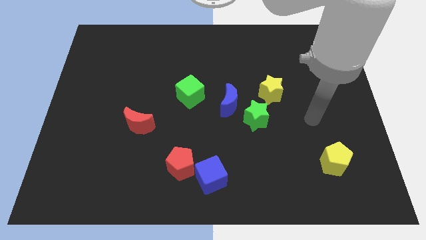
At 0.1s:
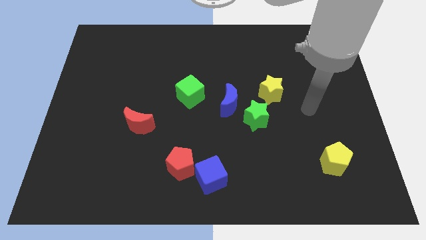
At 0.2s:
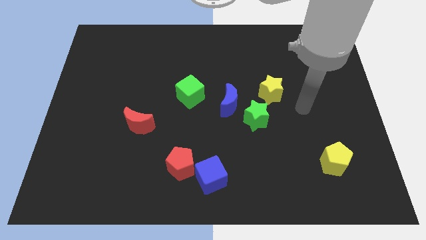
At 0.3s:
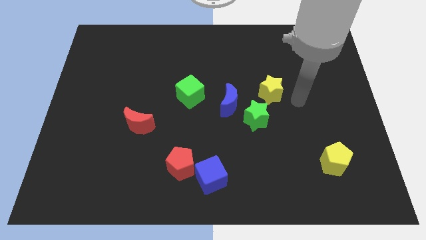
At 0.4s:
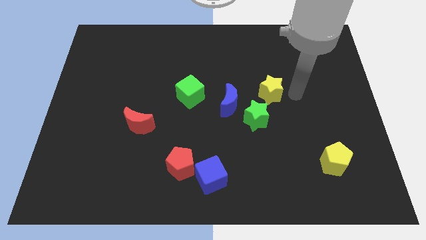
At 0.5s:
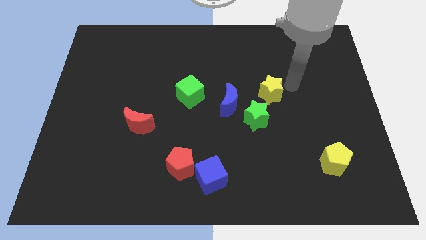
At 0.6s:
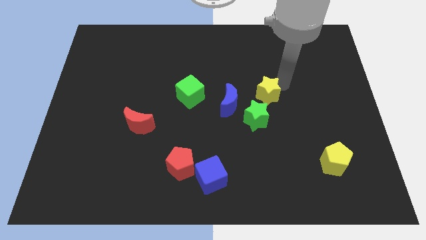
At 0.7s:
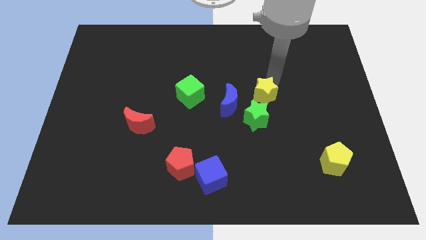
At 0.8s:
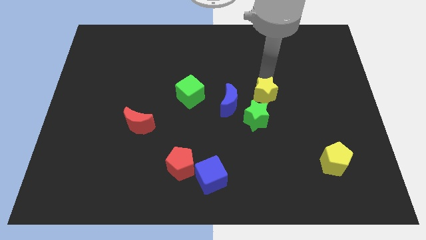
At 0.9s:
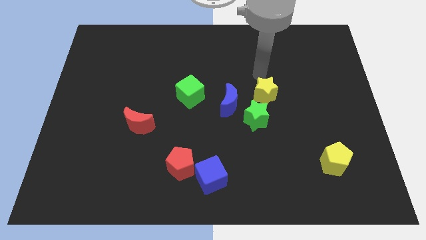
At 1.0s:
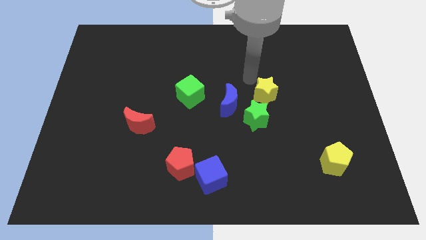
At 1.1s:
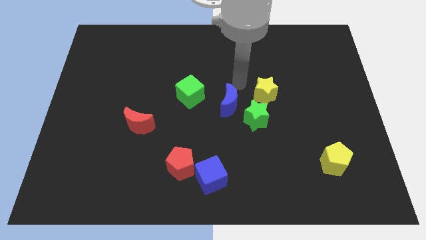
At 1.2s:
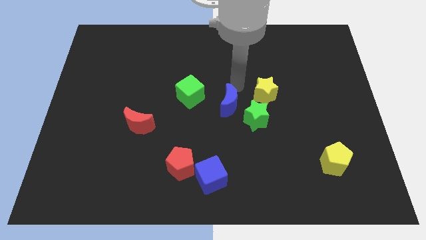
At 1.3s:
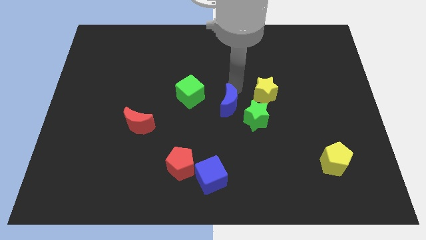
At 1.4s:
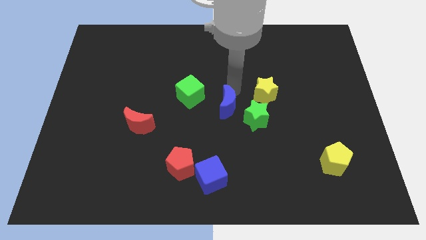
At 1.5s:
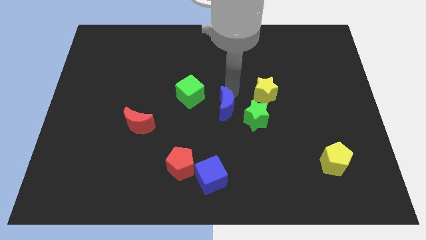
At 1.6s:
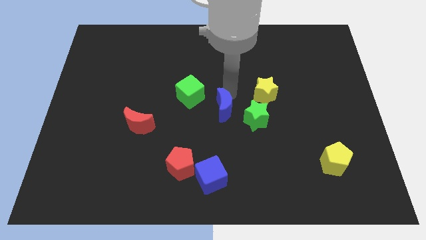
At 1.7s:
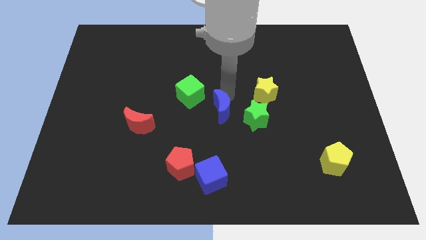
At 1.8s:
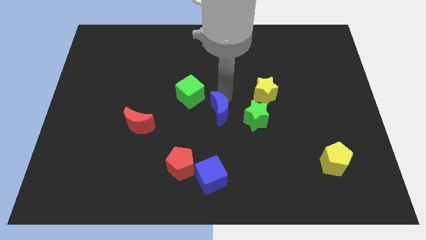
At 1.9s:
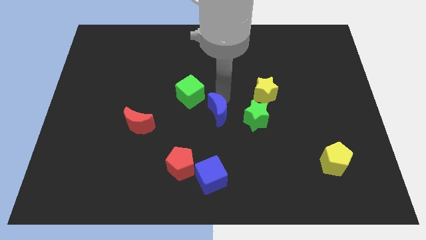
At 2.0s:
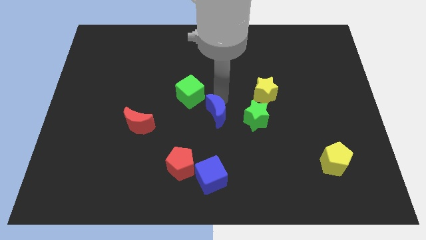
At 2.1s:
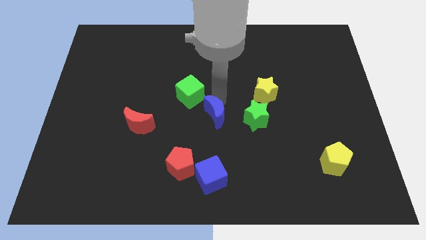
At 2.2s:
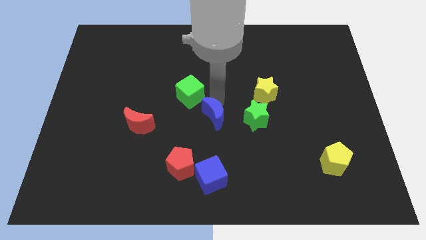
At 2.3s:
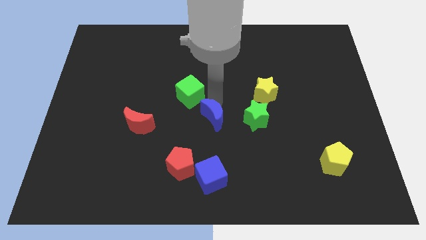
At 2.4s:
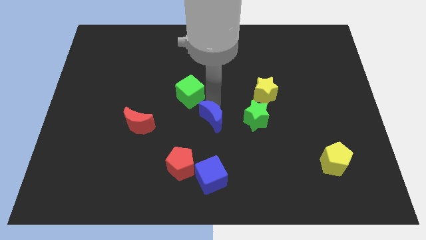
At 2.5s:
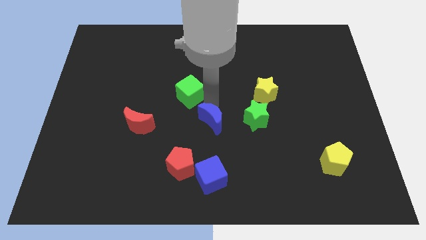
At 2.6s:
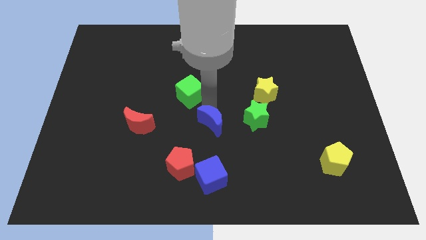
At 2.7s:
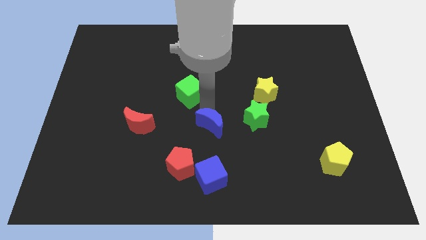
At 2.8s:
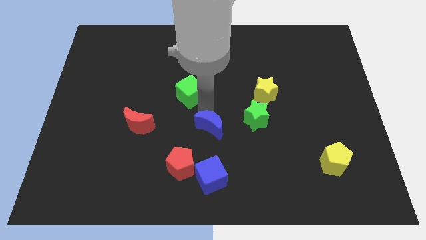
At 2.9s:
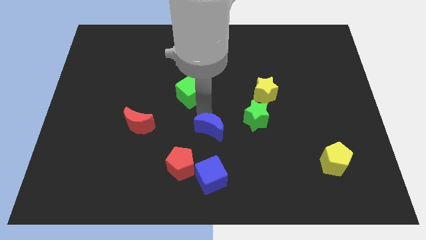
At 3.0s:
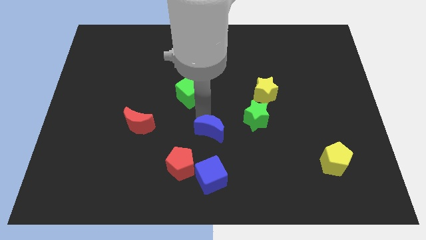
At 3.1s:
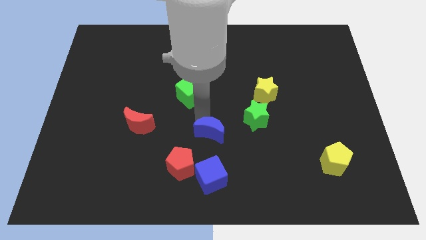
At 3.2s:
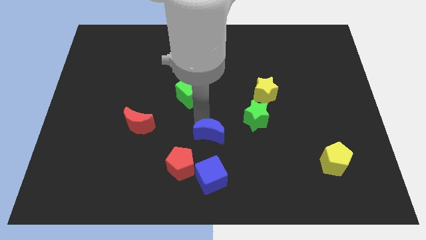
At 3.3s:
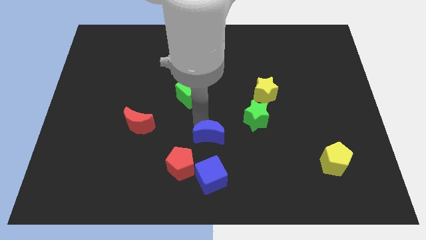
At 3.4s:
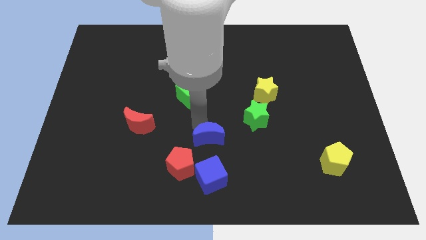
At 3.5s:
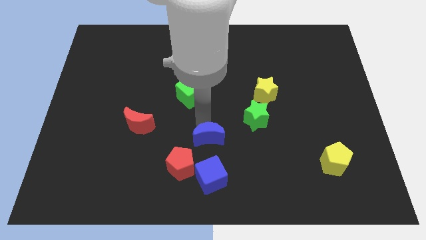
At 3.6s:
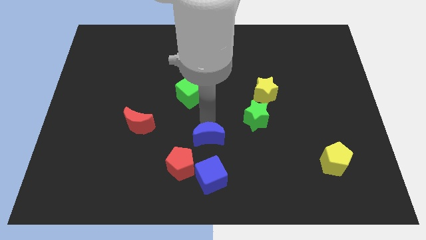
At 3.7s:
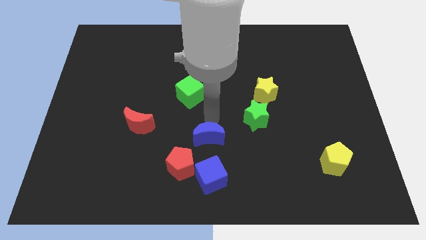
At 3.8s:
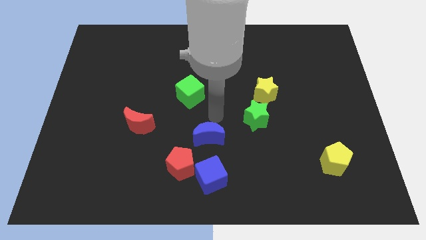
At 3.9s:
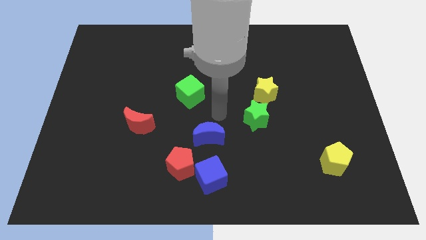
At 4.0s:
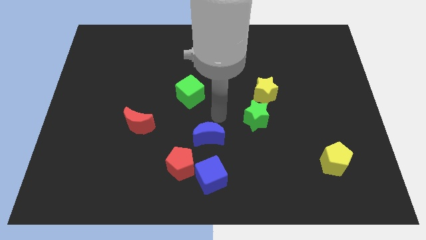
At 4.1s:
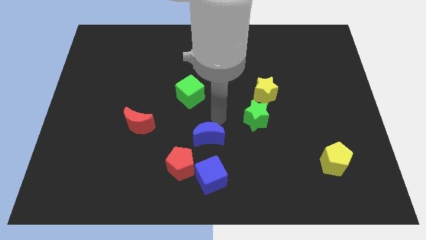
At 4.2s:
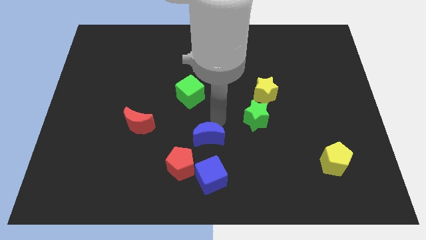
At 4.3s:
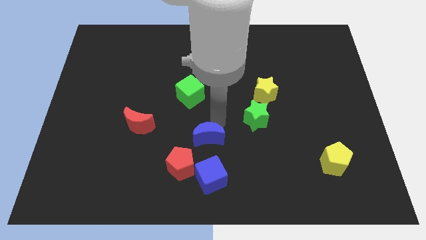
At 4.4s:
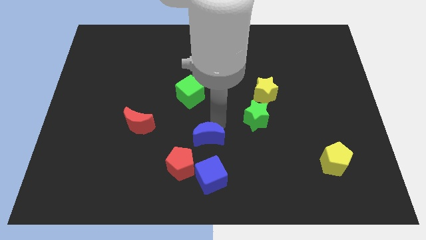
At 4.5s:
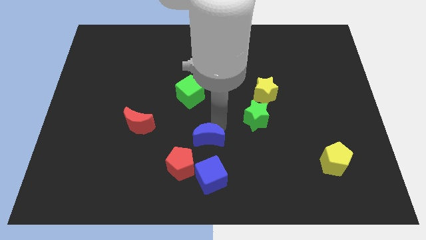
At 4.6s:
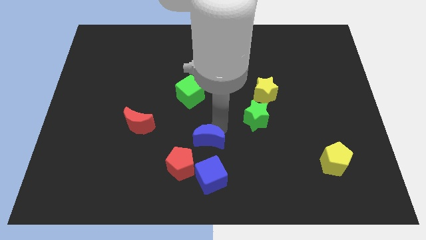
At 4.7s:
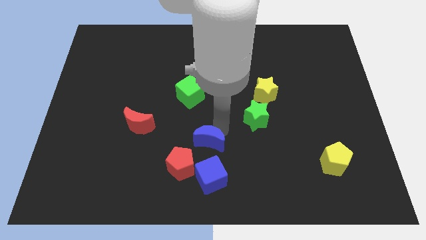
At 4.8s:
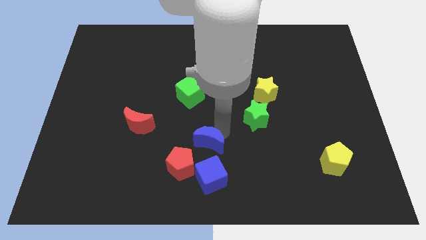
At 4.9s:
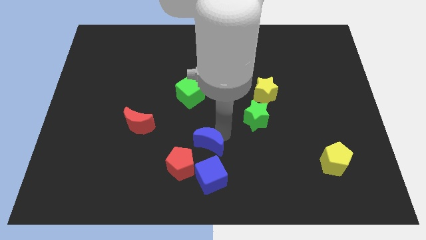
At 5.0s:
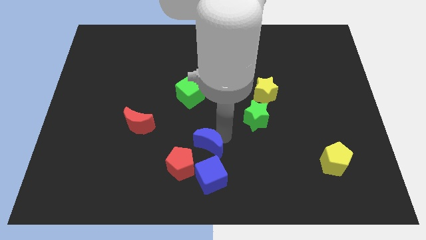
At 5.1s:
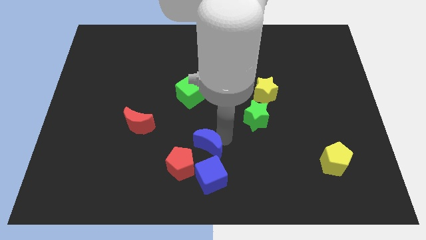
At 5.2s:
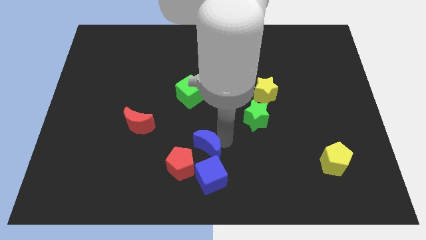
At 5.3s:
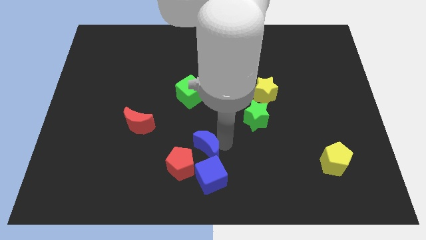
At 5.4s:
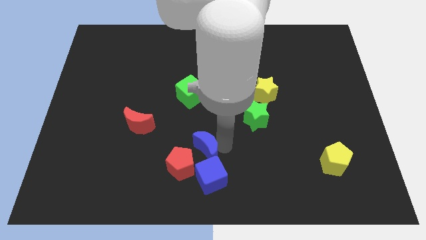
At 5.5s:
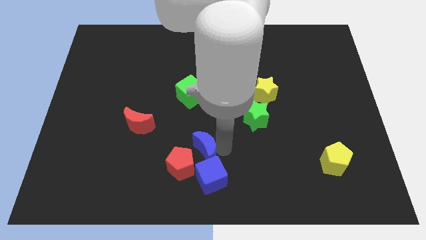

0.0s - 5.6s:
put the blue moon to the red pentagon

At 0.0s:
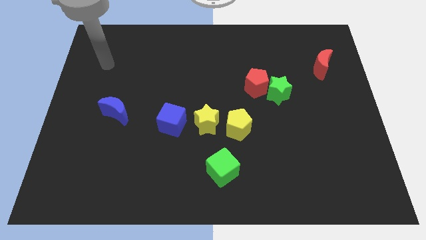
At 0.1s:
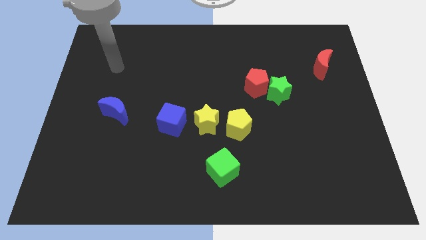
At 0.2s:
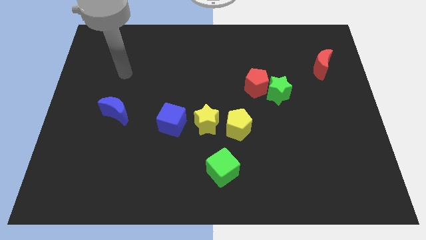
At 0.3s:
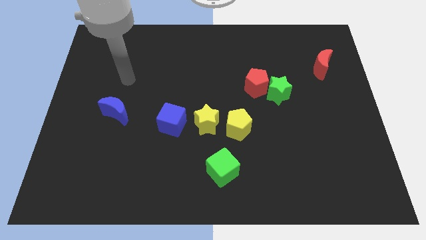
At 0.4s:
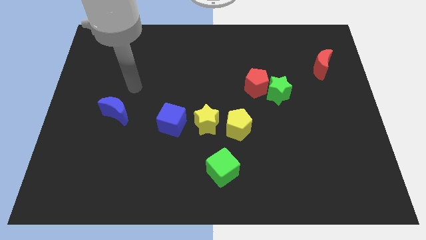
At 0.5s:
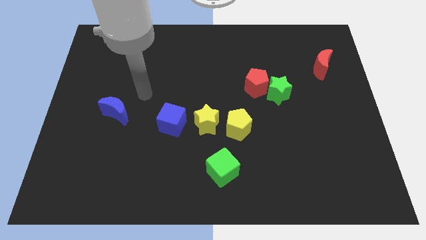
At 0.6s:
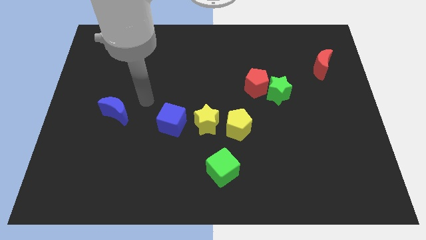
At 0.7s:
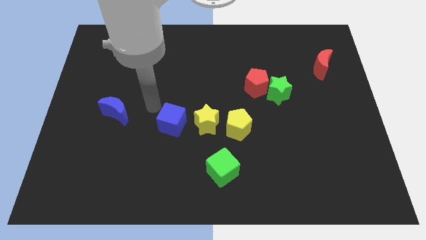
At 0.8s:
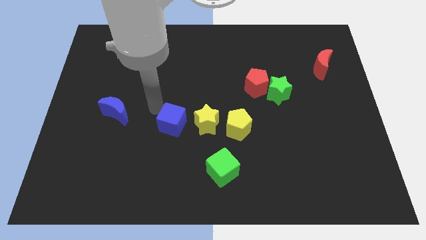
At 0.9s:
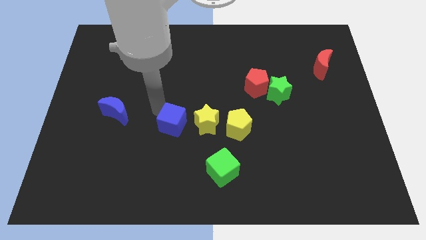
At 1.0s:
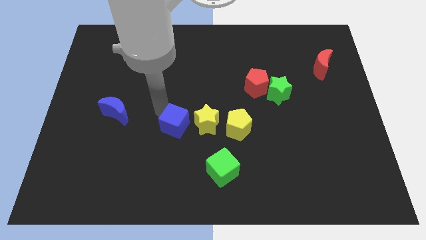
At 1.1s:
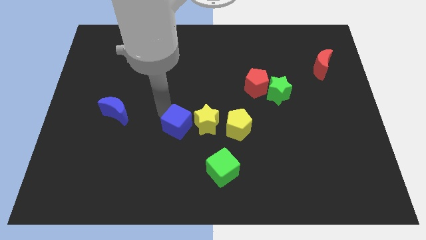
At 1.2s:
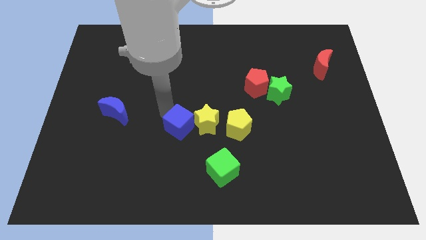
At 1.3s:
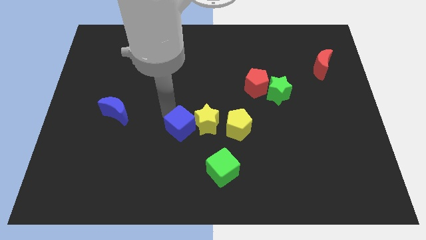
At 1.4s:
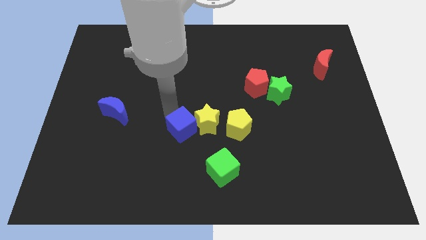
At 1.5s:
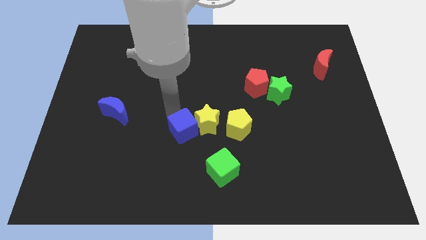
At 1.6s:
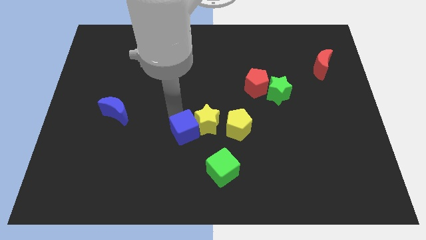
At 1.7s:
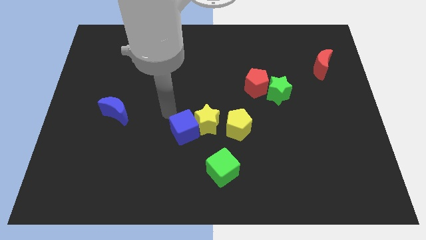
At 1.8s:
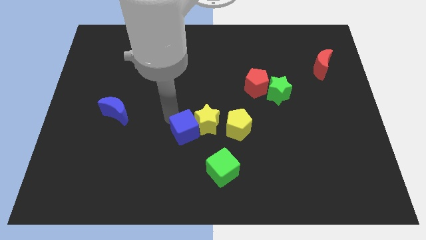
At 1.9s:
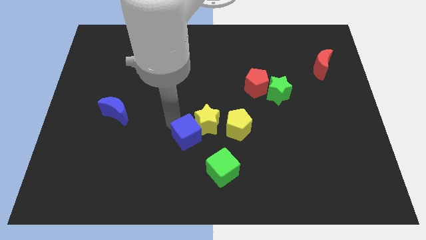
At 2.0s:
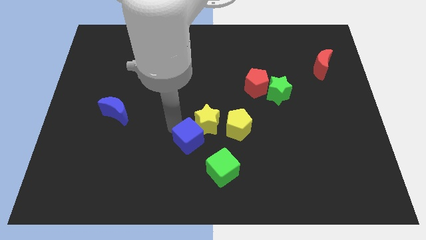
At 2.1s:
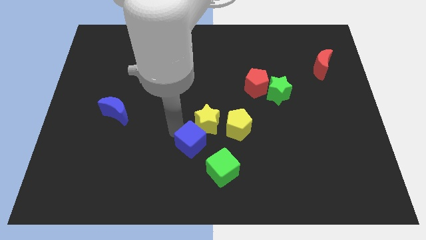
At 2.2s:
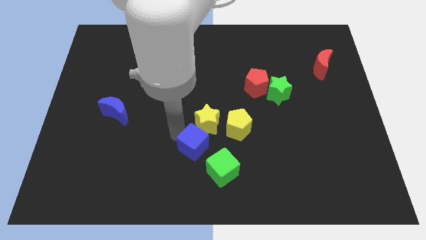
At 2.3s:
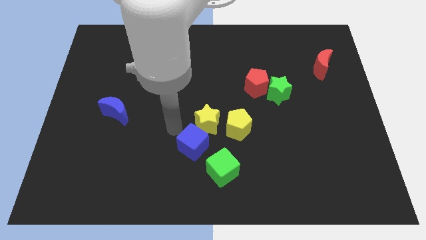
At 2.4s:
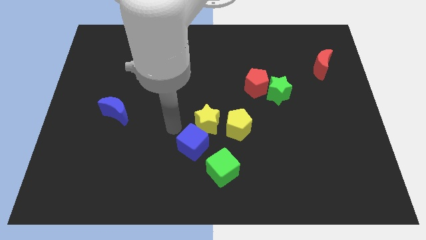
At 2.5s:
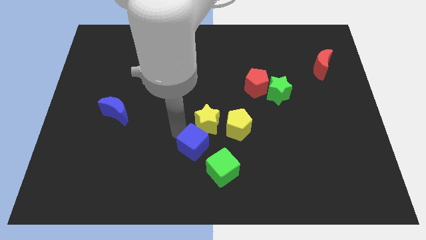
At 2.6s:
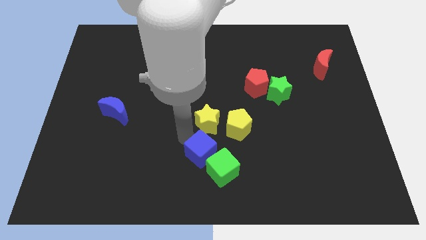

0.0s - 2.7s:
put the blue cube to the green cube
